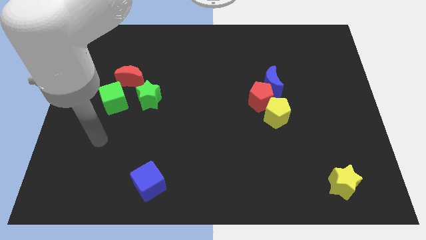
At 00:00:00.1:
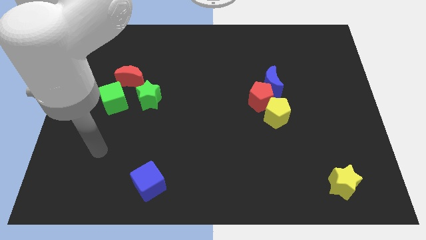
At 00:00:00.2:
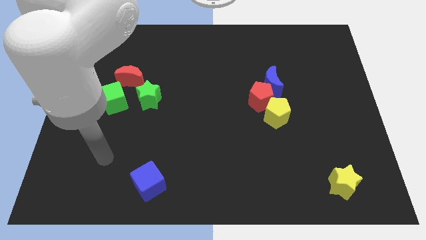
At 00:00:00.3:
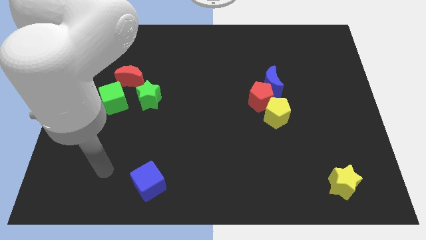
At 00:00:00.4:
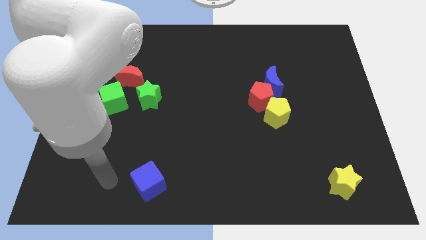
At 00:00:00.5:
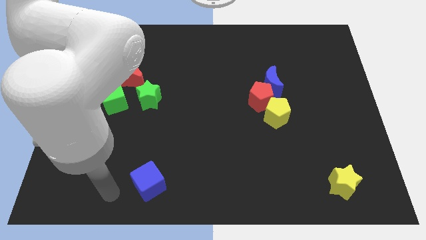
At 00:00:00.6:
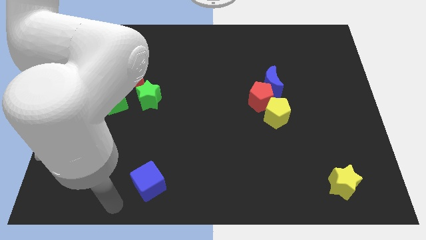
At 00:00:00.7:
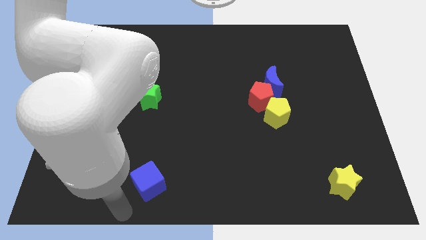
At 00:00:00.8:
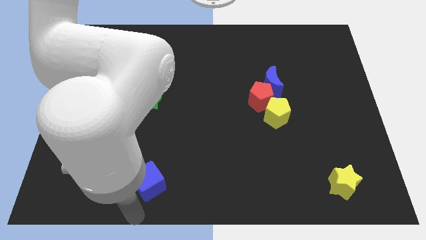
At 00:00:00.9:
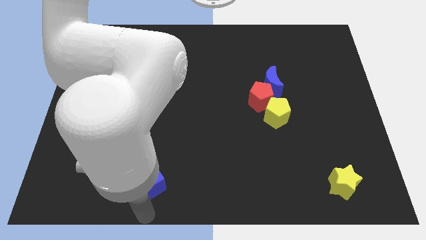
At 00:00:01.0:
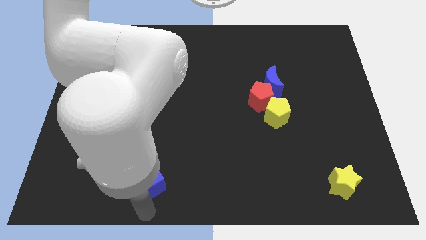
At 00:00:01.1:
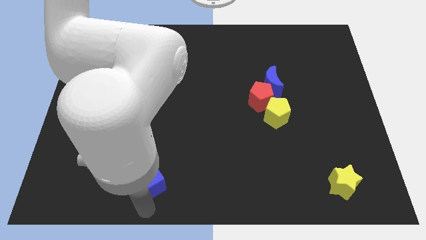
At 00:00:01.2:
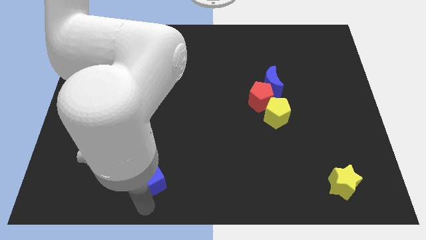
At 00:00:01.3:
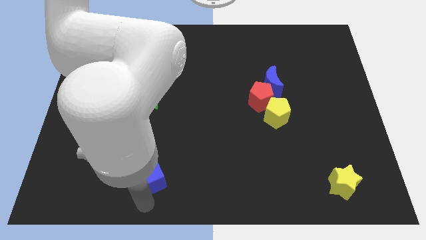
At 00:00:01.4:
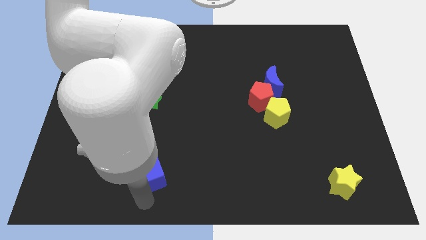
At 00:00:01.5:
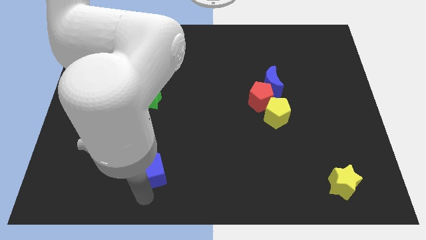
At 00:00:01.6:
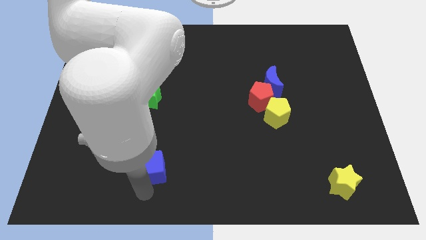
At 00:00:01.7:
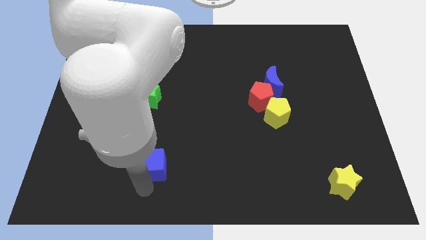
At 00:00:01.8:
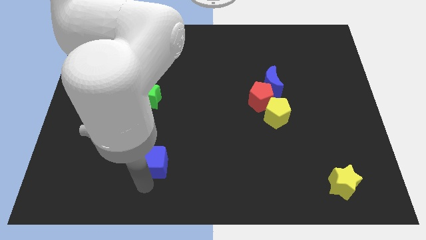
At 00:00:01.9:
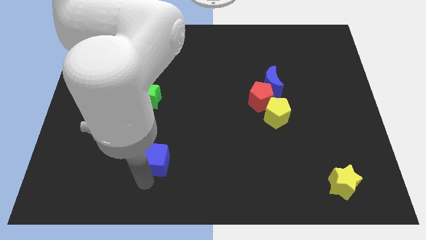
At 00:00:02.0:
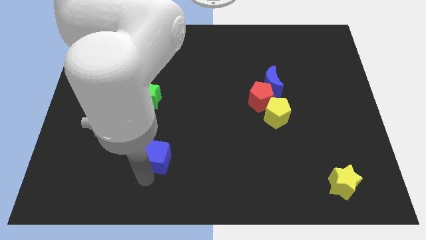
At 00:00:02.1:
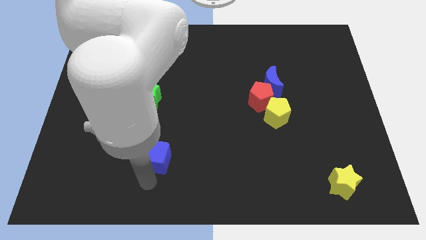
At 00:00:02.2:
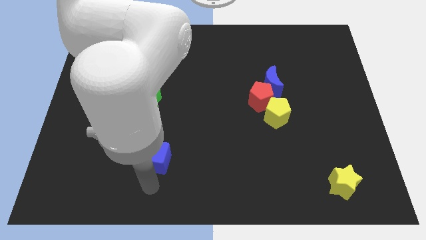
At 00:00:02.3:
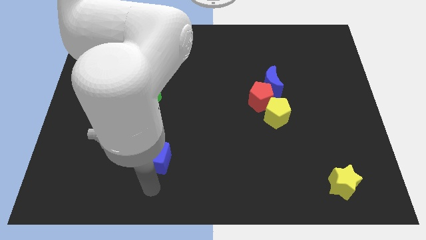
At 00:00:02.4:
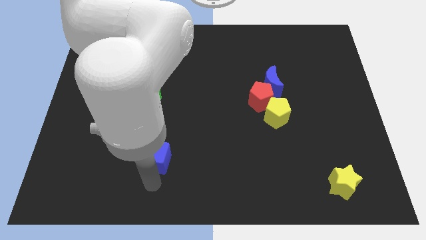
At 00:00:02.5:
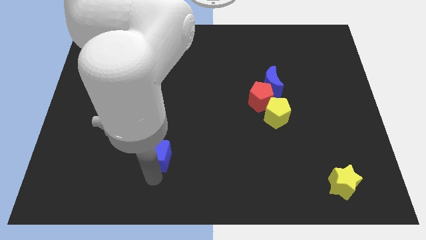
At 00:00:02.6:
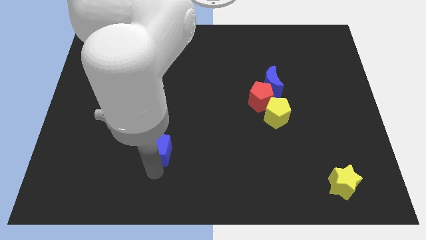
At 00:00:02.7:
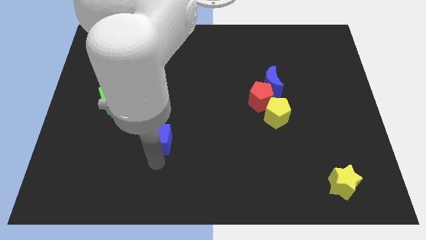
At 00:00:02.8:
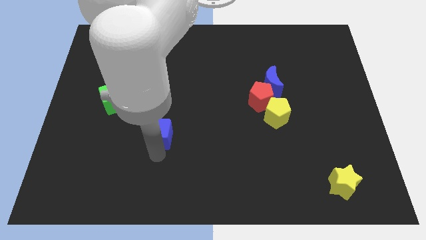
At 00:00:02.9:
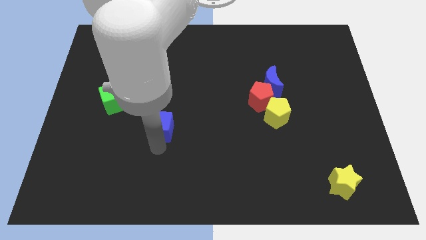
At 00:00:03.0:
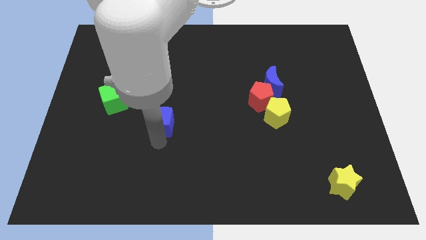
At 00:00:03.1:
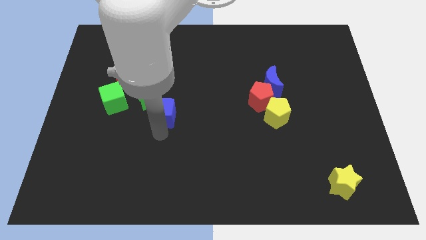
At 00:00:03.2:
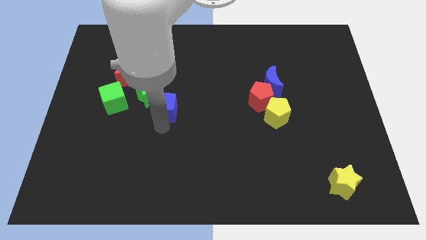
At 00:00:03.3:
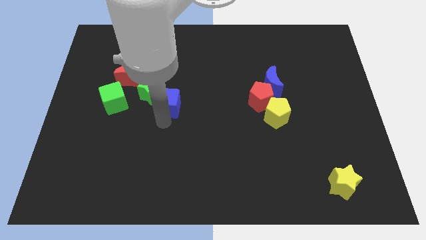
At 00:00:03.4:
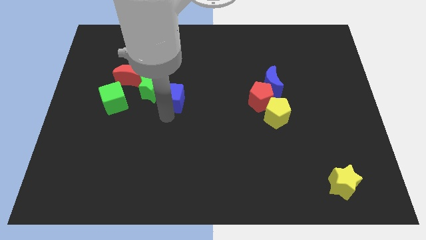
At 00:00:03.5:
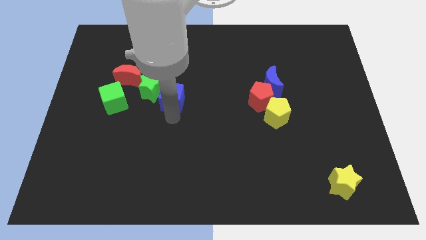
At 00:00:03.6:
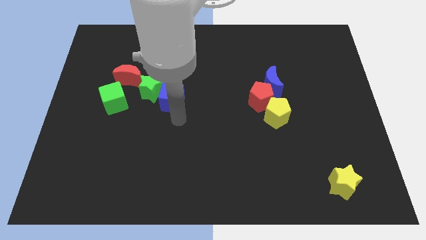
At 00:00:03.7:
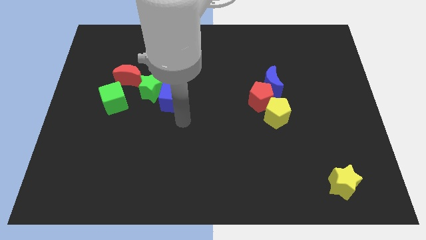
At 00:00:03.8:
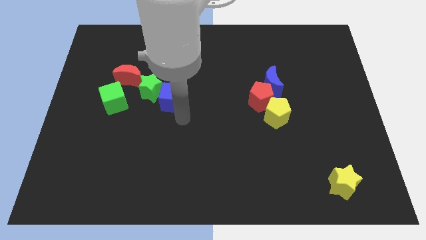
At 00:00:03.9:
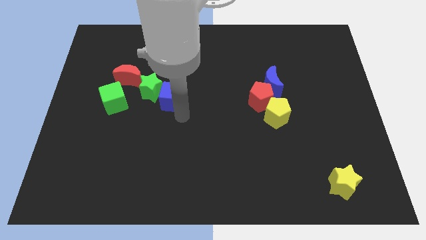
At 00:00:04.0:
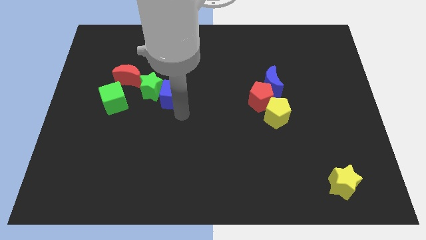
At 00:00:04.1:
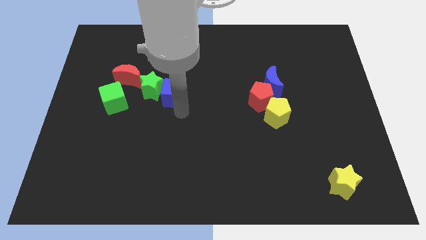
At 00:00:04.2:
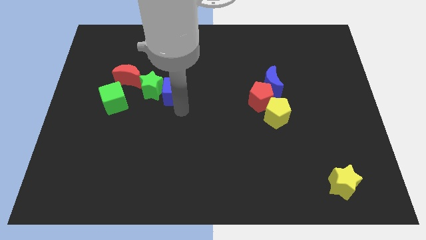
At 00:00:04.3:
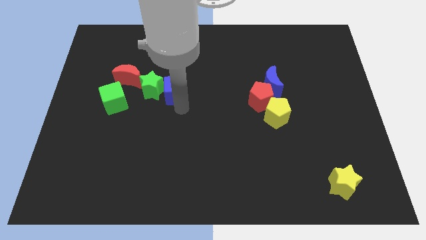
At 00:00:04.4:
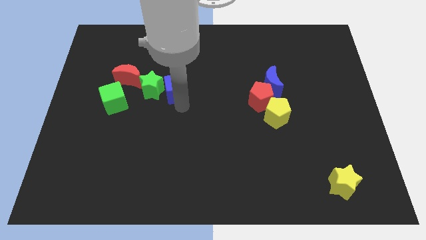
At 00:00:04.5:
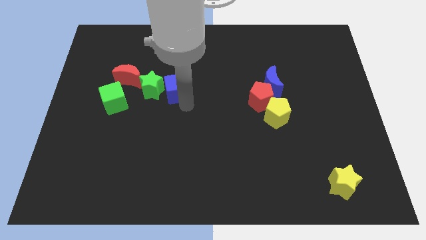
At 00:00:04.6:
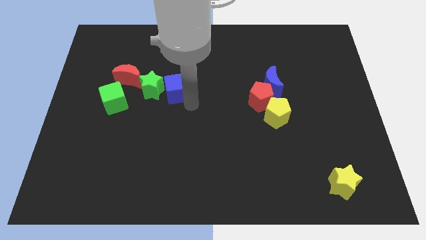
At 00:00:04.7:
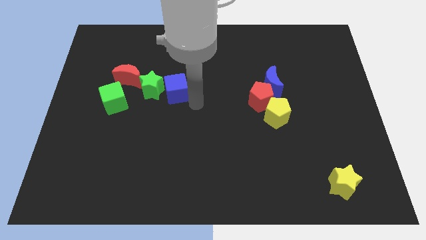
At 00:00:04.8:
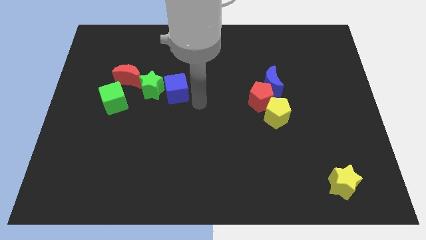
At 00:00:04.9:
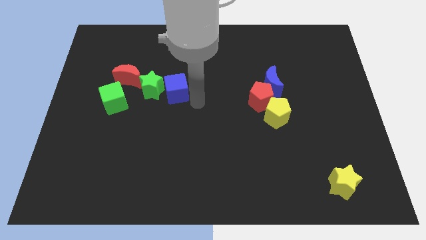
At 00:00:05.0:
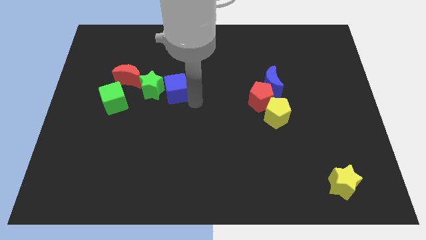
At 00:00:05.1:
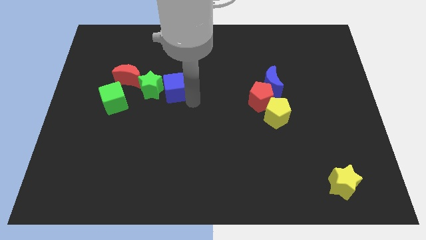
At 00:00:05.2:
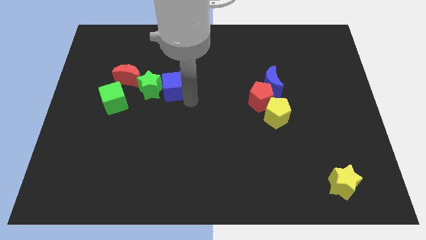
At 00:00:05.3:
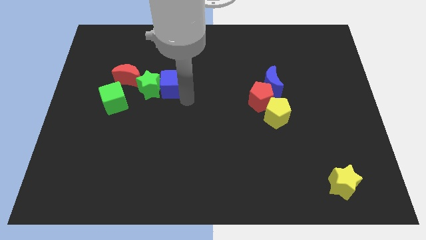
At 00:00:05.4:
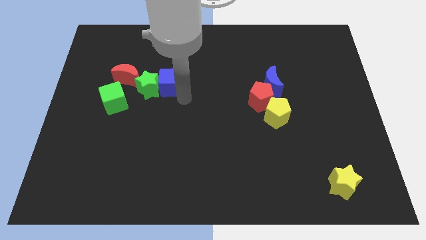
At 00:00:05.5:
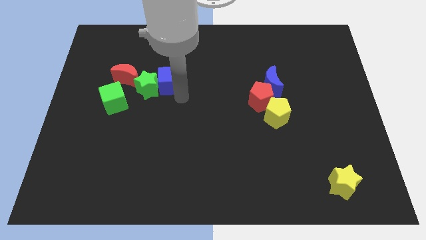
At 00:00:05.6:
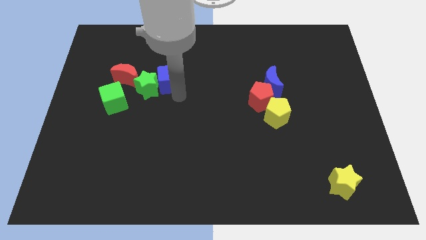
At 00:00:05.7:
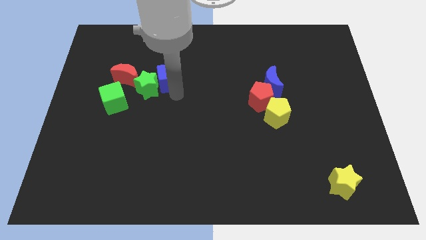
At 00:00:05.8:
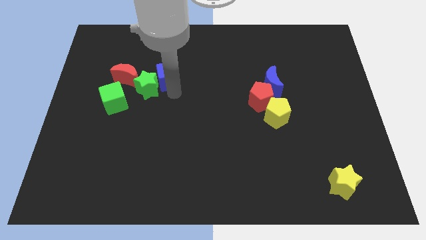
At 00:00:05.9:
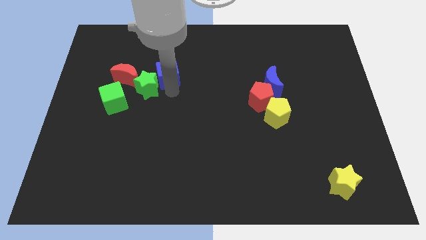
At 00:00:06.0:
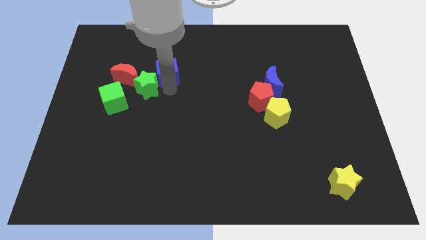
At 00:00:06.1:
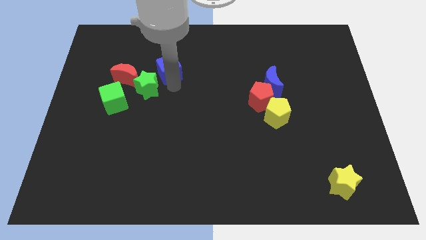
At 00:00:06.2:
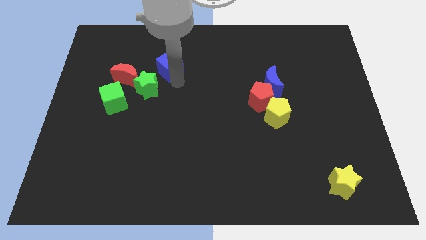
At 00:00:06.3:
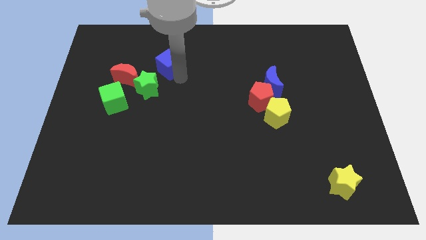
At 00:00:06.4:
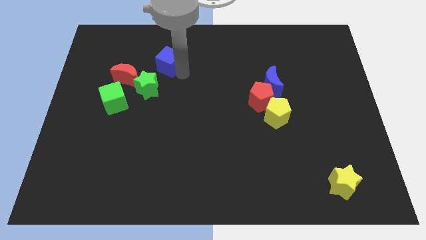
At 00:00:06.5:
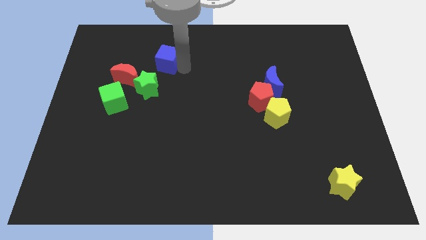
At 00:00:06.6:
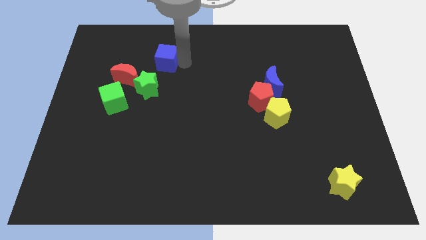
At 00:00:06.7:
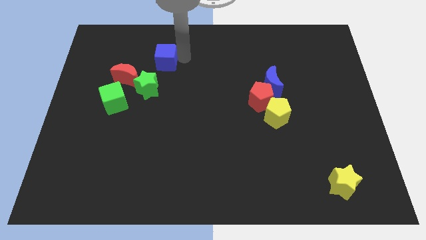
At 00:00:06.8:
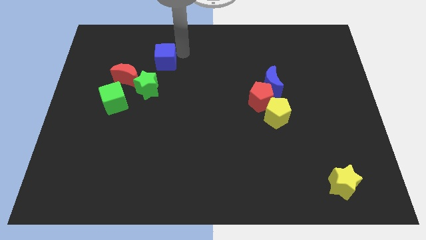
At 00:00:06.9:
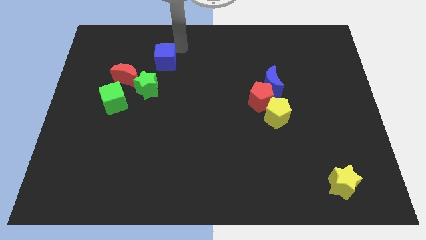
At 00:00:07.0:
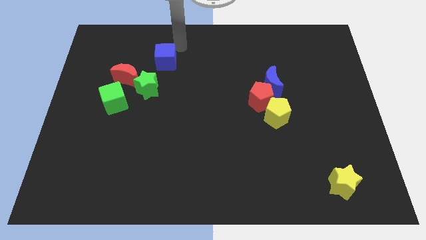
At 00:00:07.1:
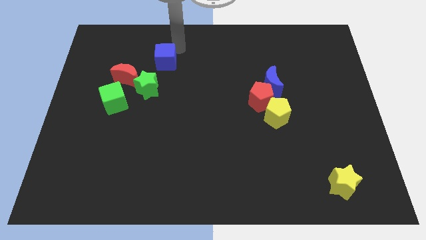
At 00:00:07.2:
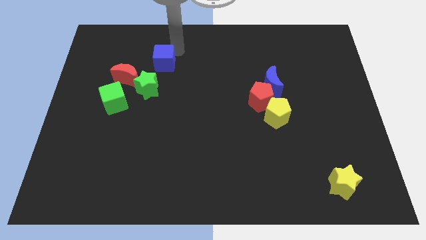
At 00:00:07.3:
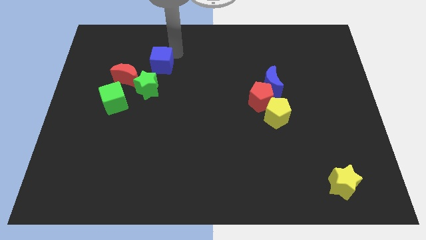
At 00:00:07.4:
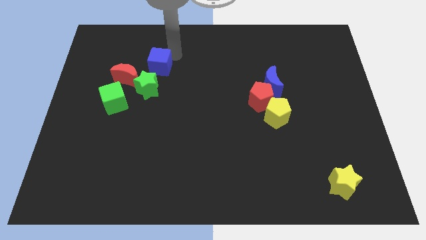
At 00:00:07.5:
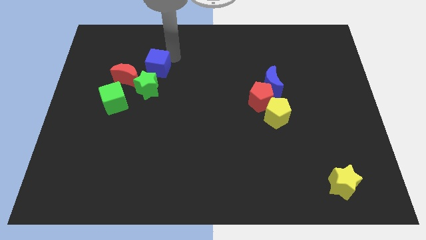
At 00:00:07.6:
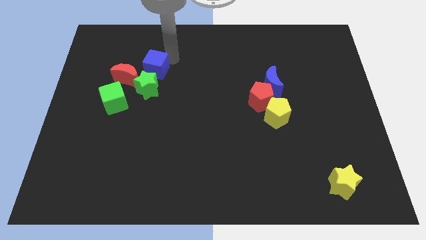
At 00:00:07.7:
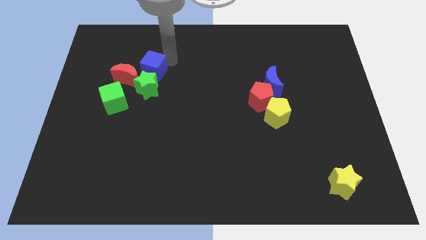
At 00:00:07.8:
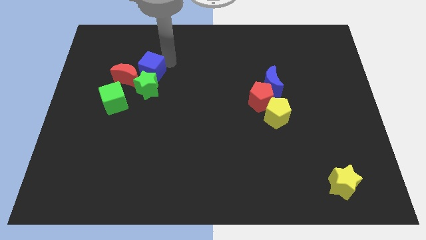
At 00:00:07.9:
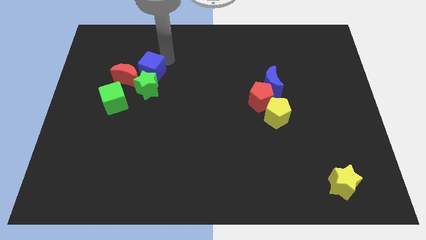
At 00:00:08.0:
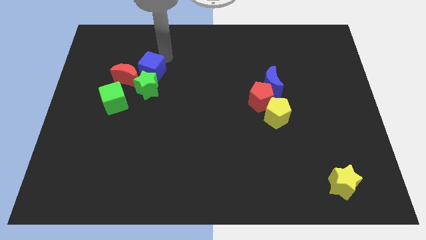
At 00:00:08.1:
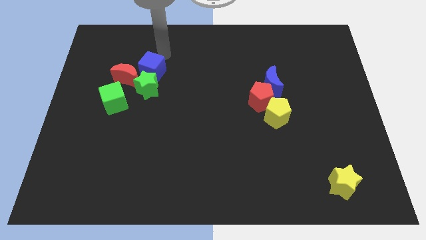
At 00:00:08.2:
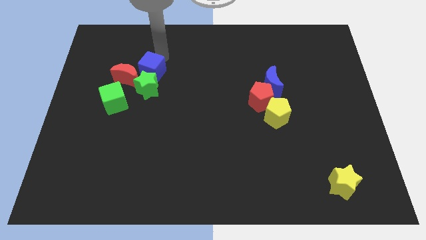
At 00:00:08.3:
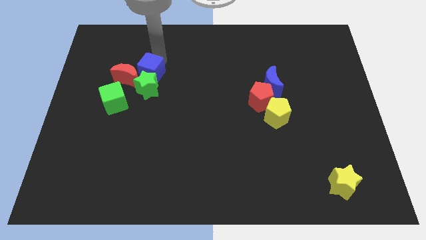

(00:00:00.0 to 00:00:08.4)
push the blue cube to the red moon
